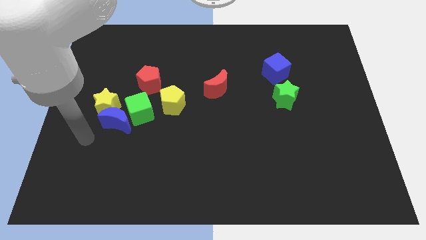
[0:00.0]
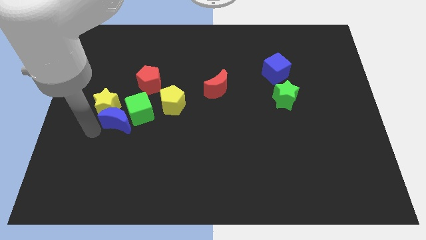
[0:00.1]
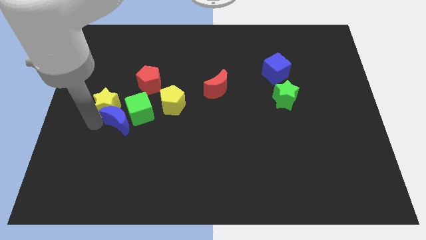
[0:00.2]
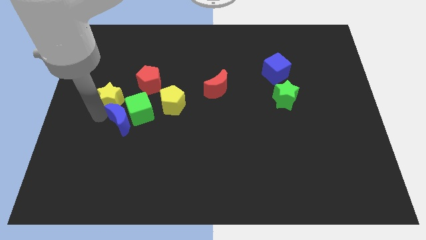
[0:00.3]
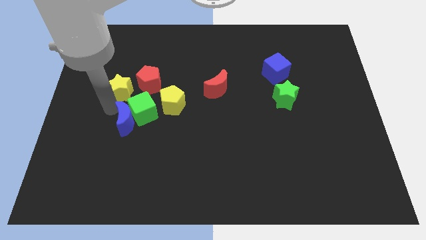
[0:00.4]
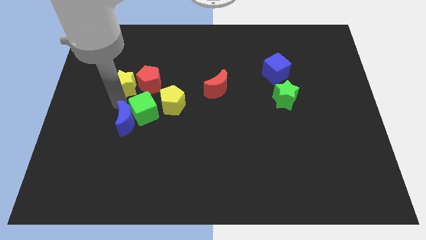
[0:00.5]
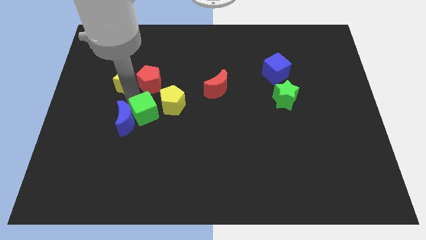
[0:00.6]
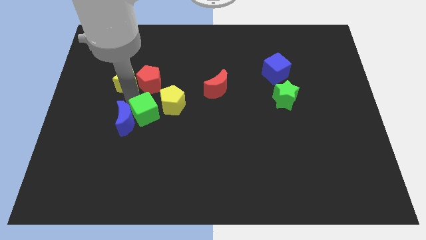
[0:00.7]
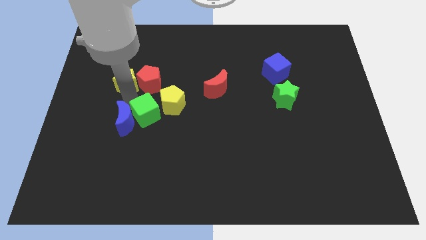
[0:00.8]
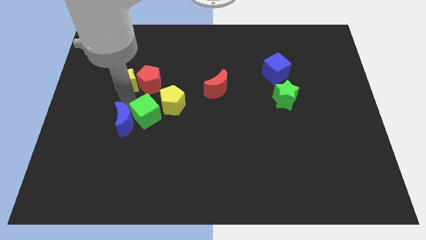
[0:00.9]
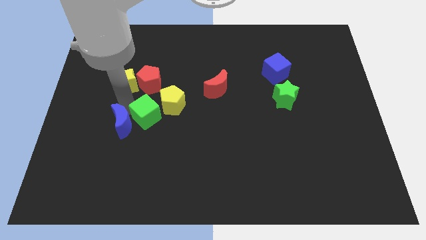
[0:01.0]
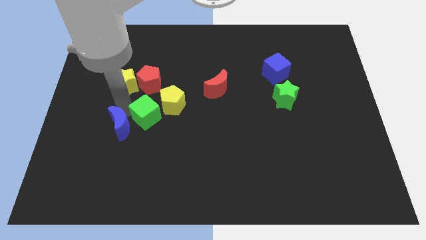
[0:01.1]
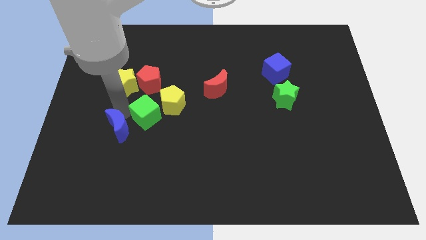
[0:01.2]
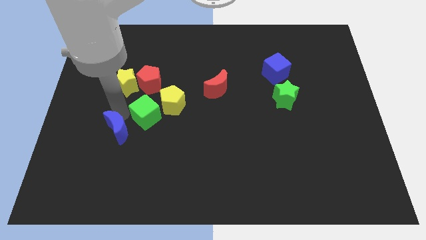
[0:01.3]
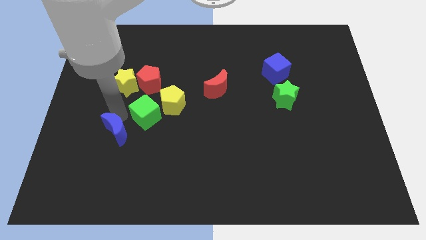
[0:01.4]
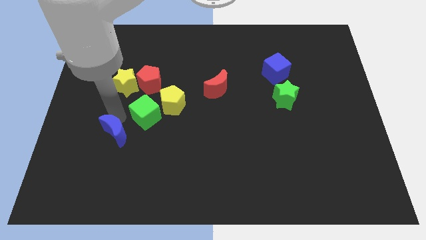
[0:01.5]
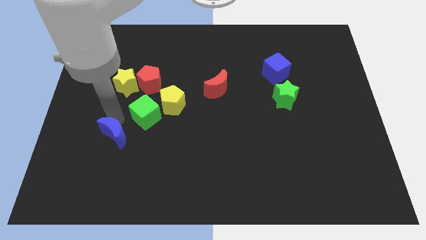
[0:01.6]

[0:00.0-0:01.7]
separate the blue moon from the yellow star and green cube

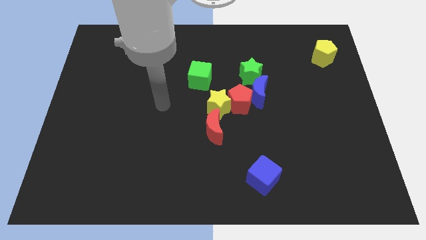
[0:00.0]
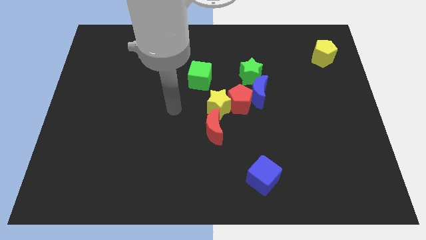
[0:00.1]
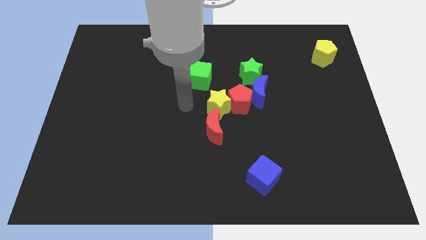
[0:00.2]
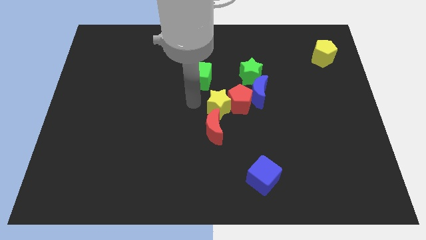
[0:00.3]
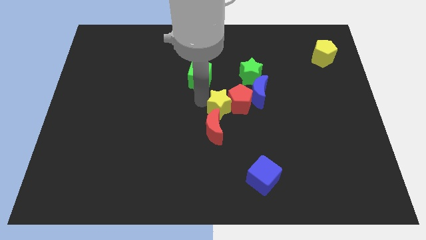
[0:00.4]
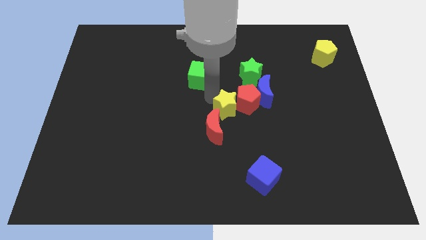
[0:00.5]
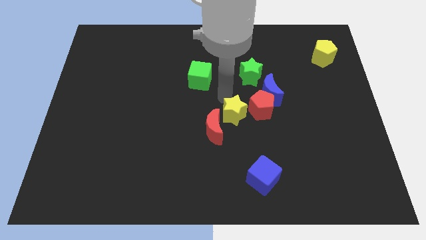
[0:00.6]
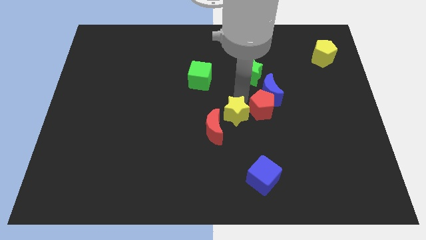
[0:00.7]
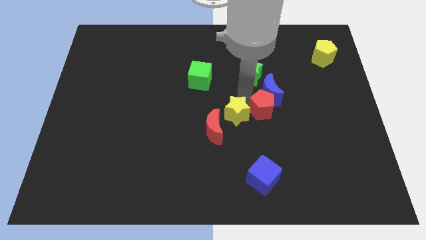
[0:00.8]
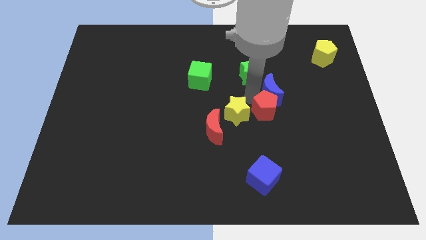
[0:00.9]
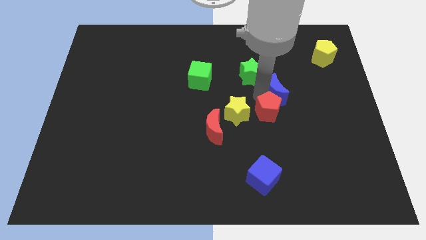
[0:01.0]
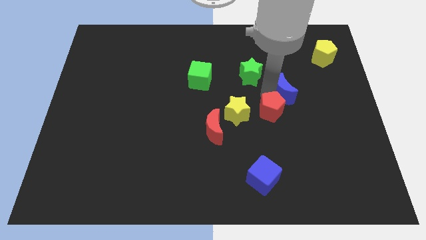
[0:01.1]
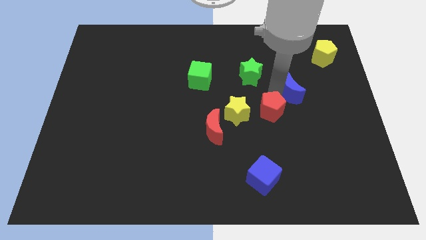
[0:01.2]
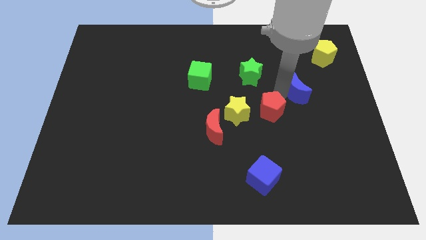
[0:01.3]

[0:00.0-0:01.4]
move the blue moon away from the clump

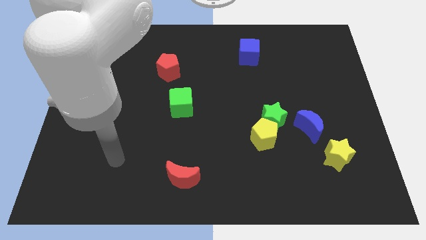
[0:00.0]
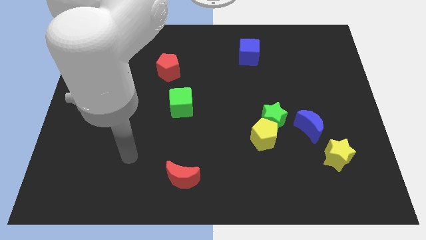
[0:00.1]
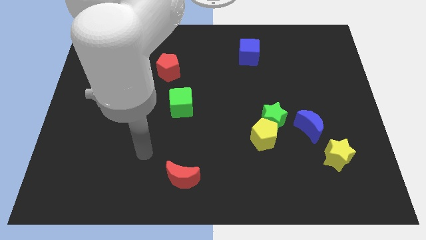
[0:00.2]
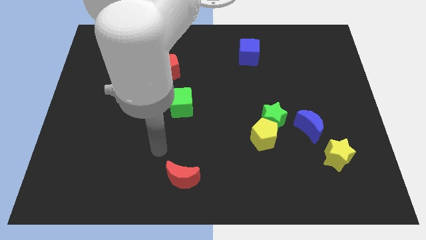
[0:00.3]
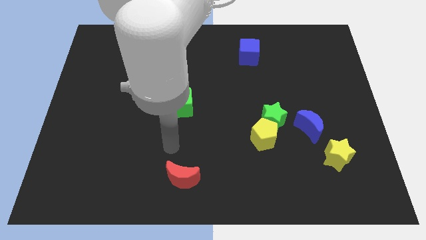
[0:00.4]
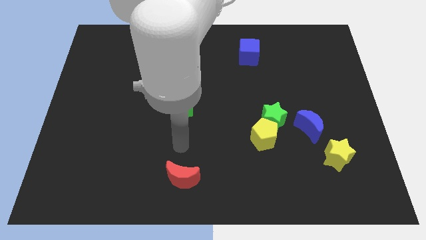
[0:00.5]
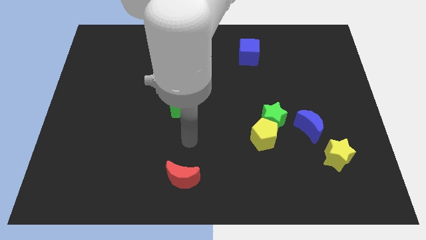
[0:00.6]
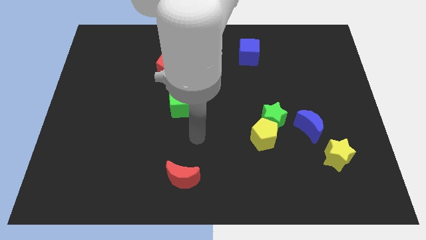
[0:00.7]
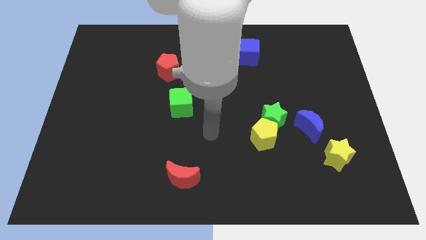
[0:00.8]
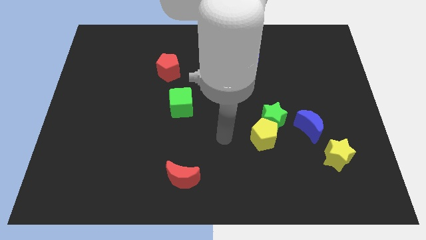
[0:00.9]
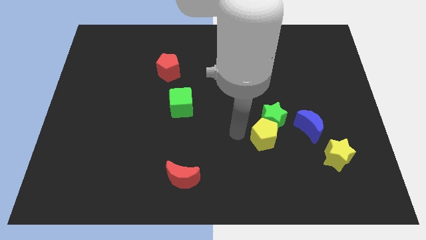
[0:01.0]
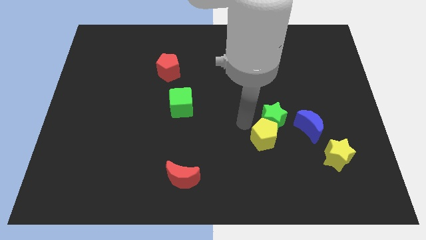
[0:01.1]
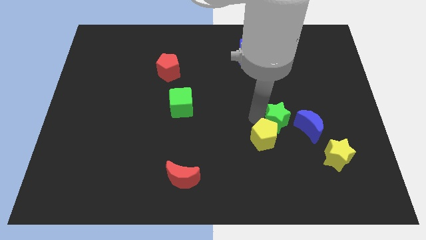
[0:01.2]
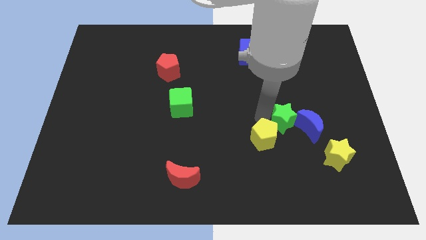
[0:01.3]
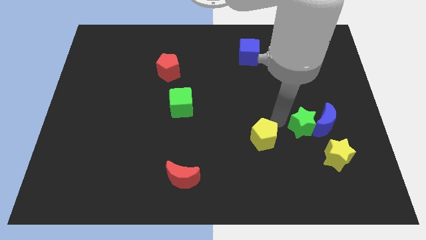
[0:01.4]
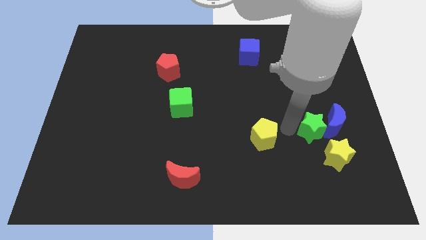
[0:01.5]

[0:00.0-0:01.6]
pull the yellow pentagon apart from the green star

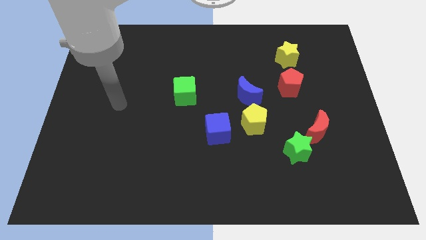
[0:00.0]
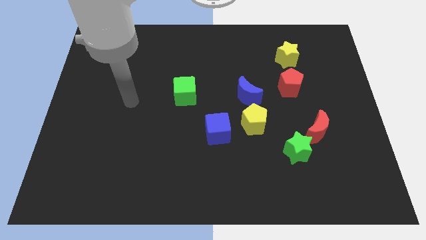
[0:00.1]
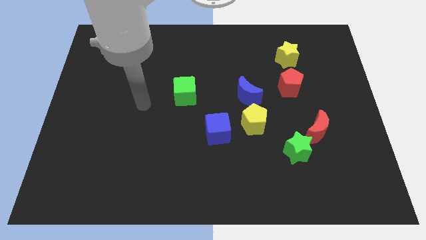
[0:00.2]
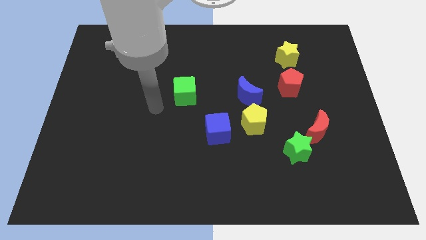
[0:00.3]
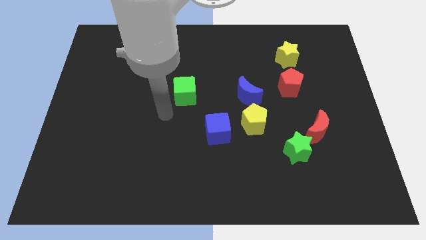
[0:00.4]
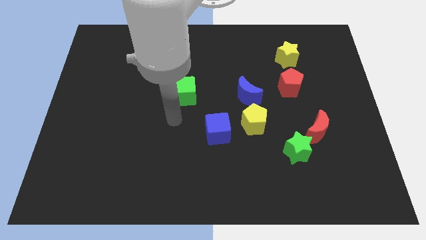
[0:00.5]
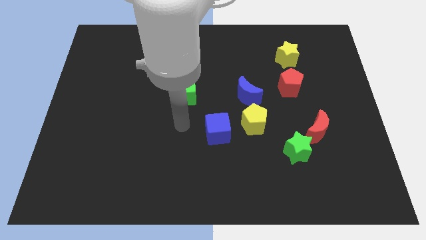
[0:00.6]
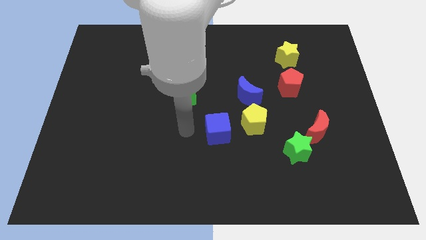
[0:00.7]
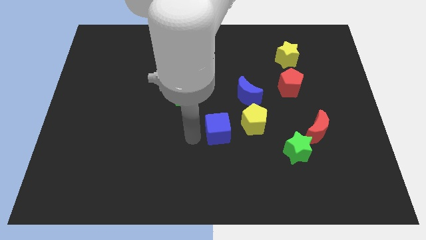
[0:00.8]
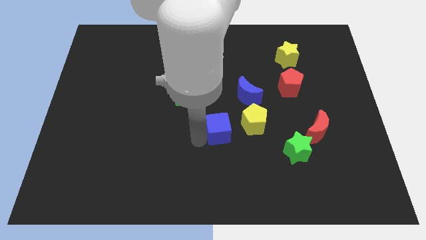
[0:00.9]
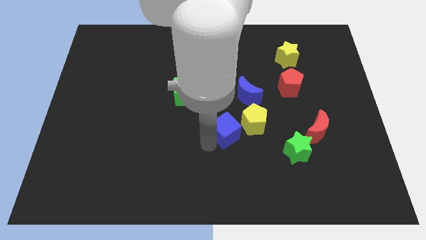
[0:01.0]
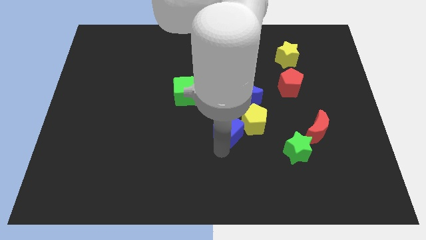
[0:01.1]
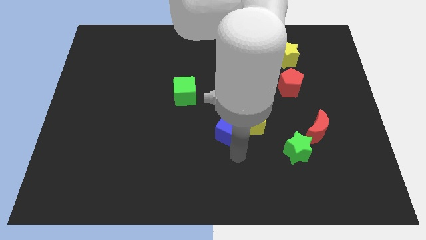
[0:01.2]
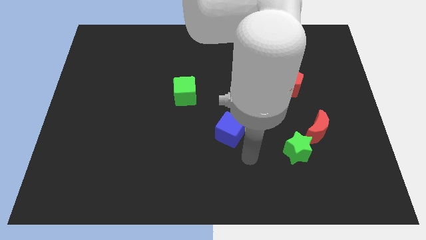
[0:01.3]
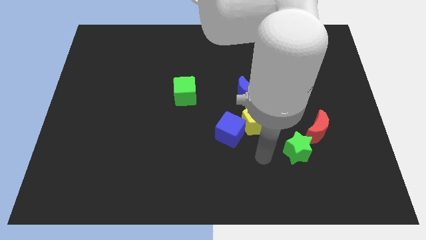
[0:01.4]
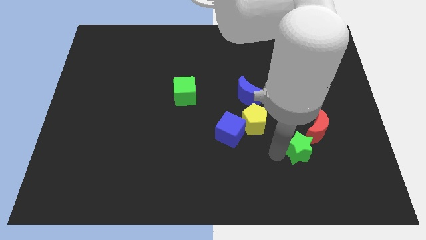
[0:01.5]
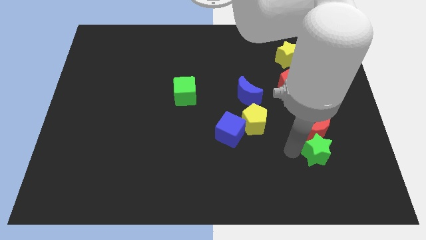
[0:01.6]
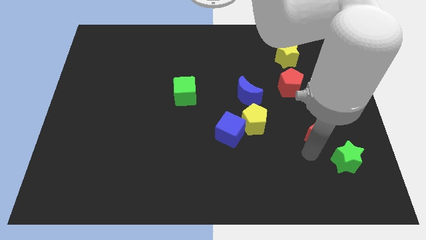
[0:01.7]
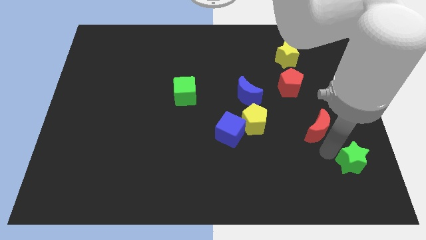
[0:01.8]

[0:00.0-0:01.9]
separate the red moon from the green star

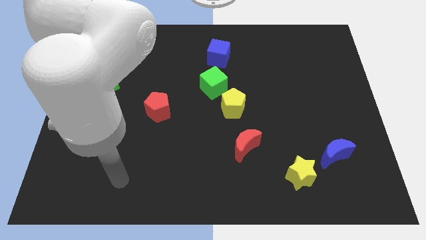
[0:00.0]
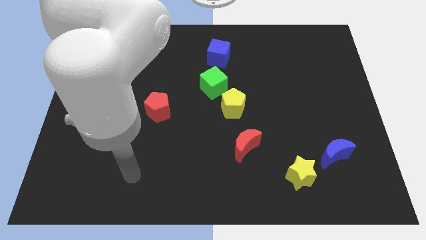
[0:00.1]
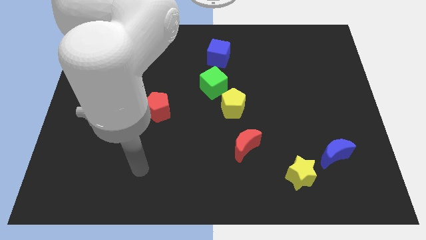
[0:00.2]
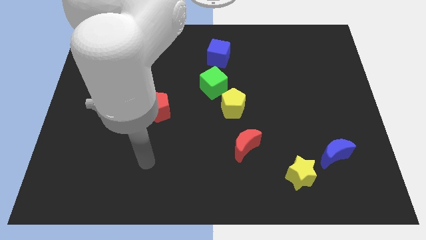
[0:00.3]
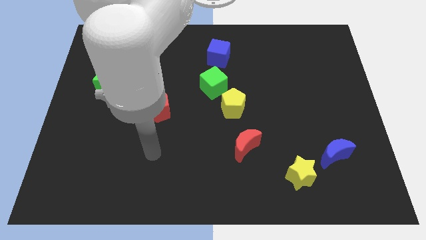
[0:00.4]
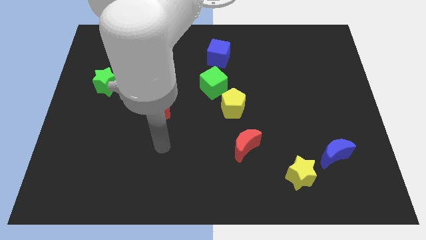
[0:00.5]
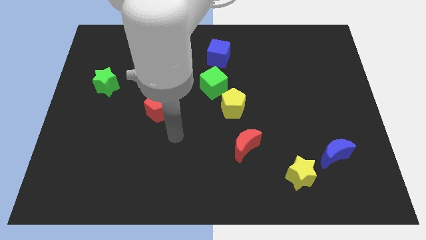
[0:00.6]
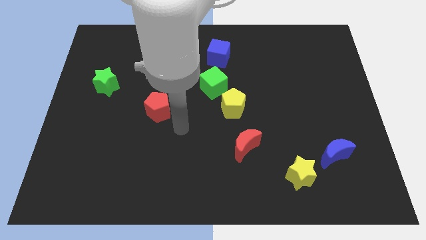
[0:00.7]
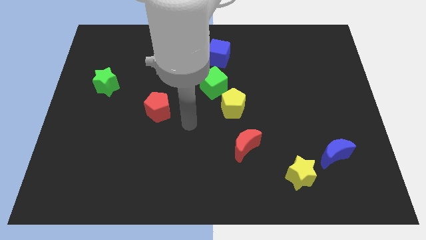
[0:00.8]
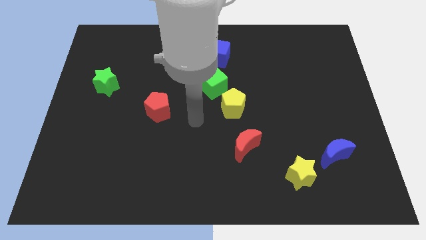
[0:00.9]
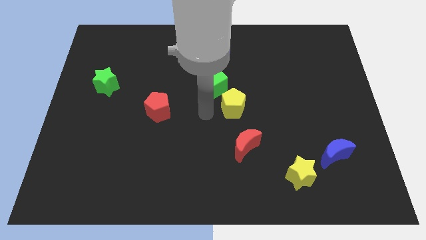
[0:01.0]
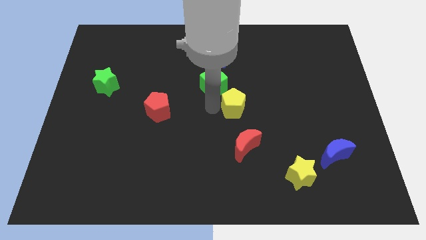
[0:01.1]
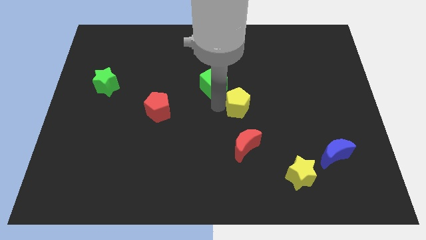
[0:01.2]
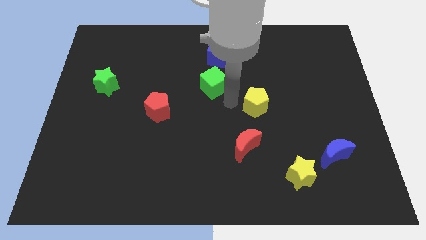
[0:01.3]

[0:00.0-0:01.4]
separate the green cube from the yellow pentagon

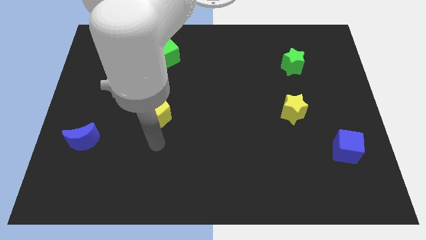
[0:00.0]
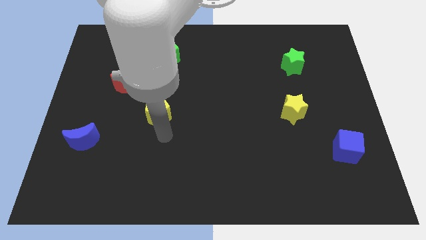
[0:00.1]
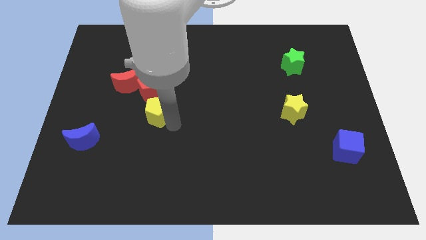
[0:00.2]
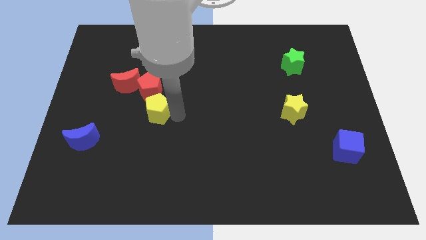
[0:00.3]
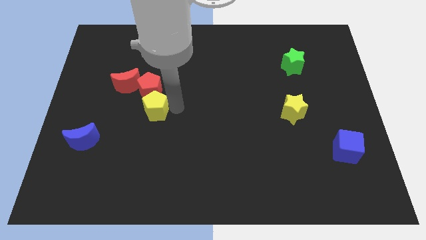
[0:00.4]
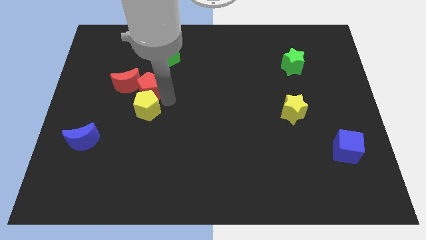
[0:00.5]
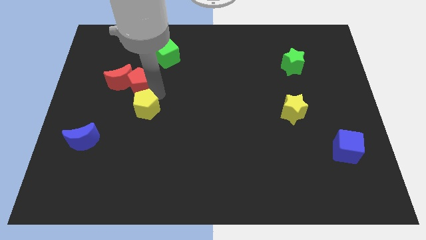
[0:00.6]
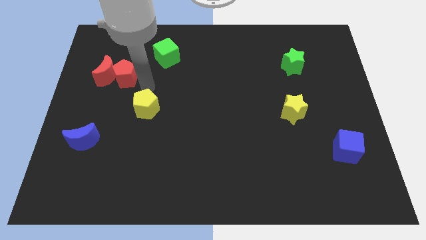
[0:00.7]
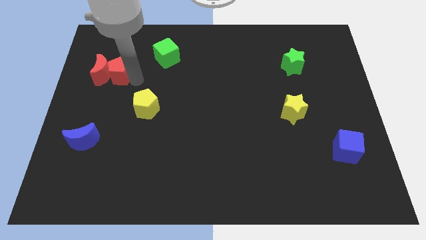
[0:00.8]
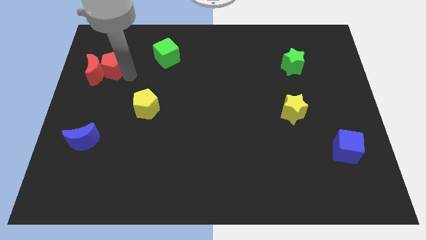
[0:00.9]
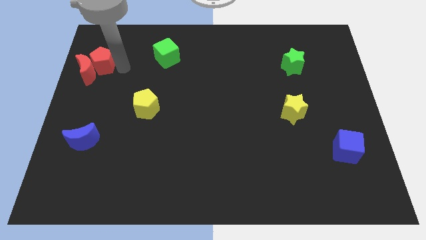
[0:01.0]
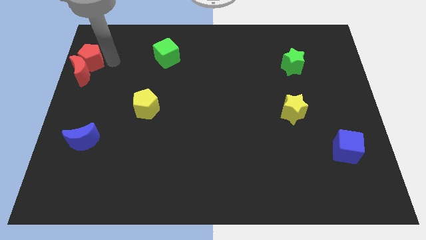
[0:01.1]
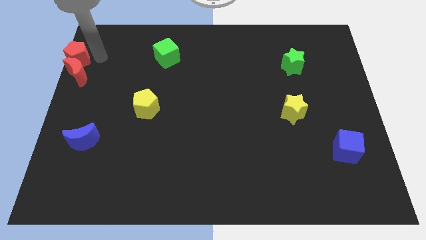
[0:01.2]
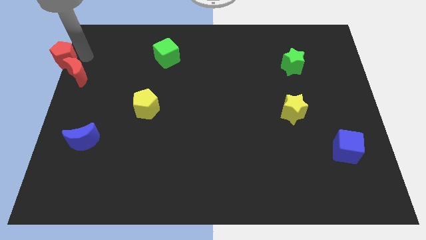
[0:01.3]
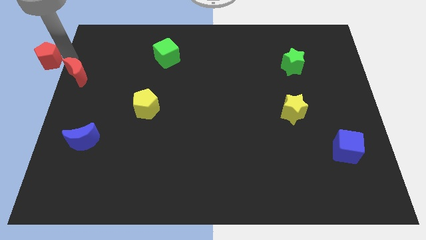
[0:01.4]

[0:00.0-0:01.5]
pull the red moon apart from the red pentagon
